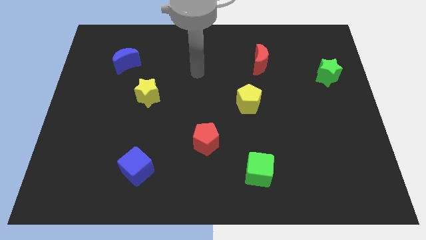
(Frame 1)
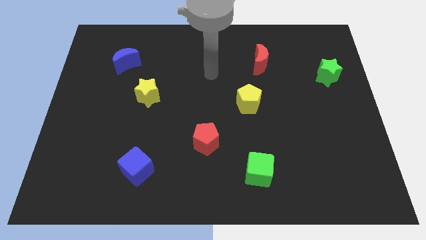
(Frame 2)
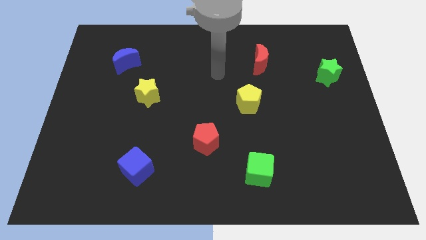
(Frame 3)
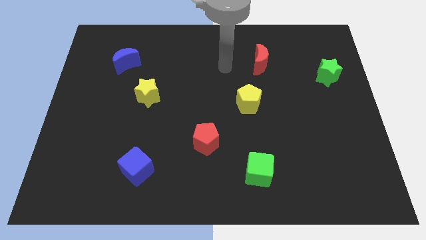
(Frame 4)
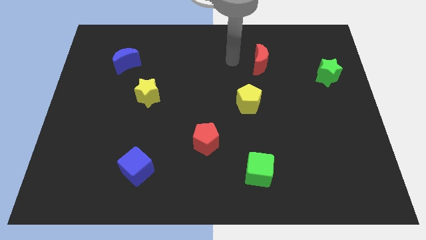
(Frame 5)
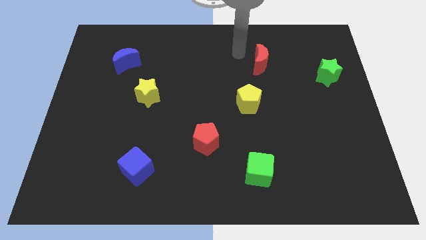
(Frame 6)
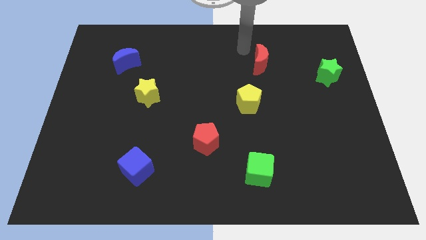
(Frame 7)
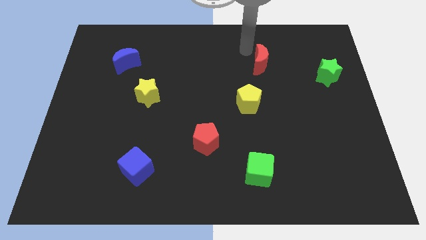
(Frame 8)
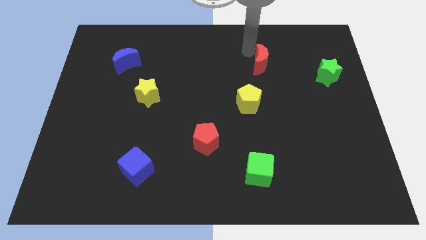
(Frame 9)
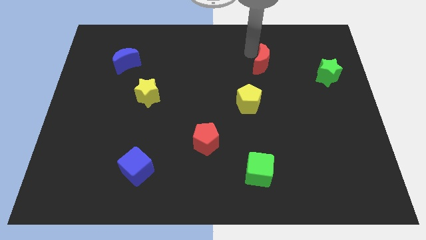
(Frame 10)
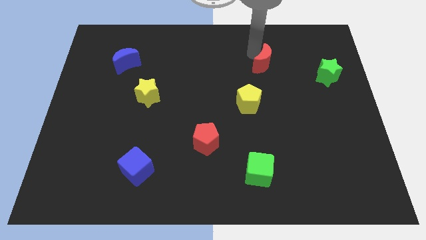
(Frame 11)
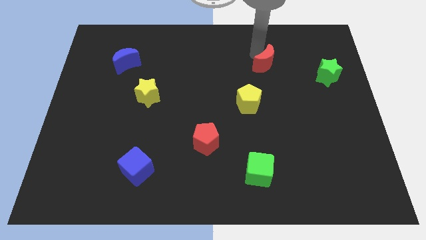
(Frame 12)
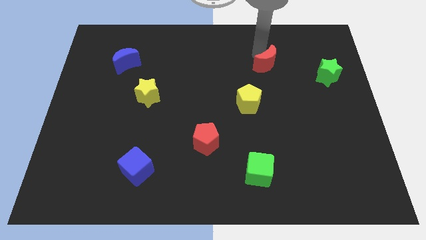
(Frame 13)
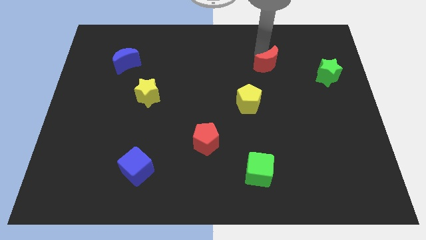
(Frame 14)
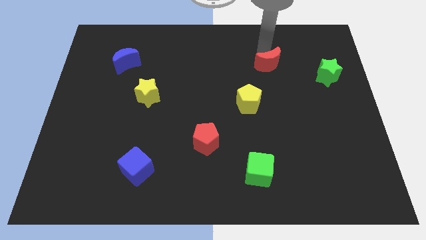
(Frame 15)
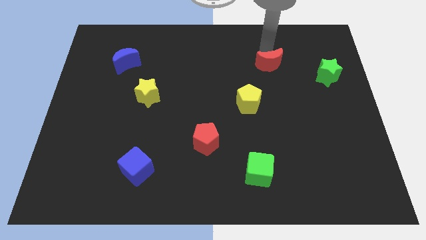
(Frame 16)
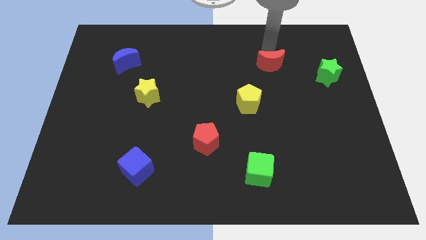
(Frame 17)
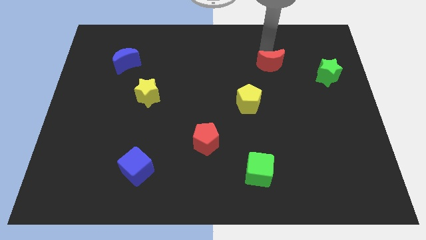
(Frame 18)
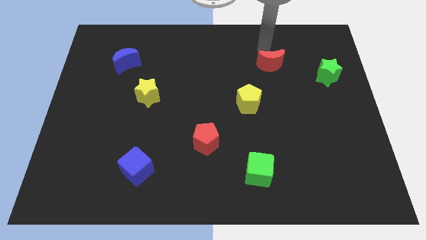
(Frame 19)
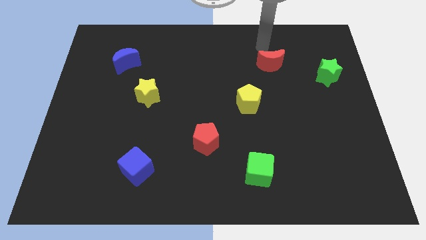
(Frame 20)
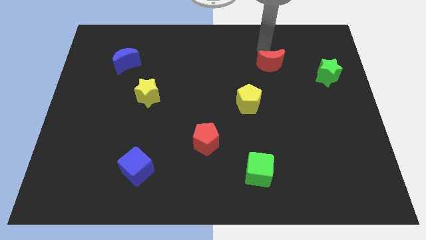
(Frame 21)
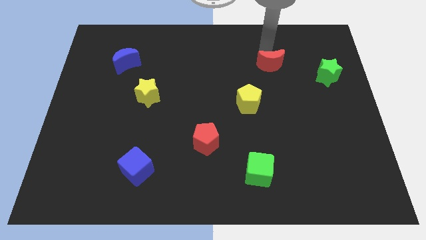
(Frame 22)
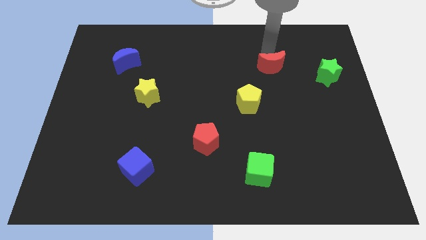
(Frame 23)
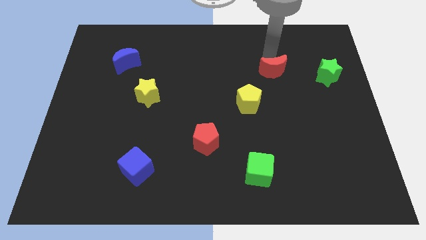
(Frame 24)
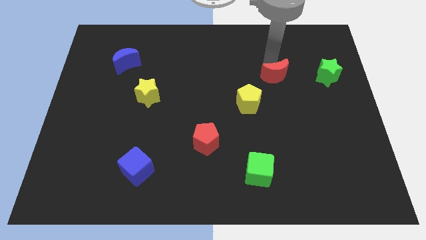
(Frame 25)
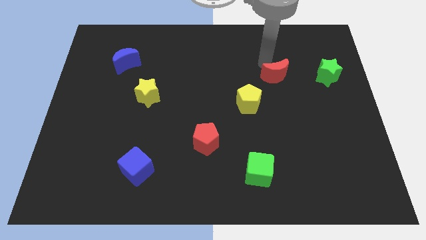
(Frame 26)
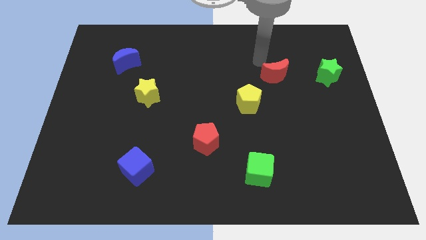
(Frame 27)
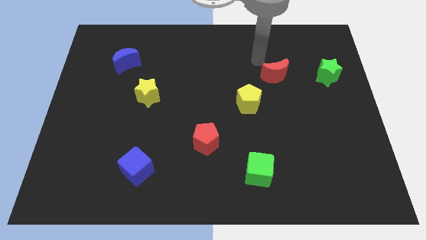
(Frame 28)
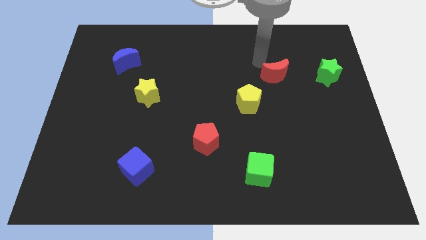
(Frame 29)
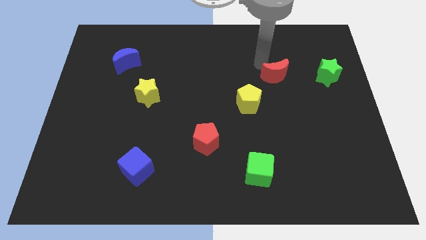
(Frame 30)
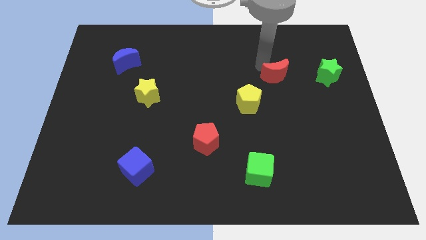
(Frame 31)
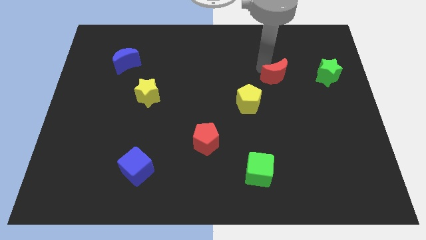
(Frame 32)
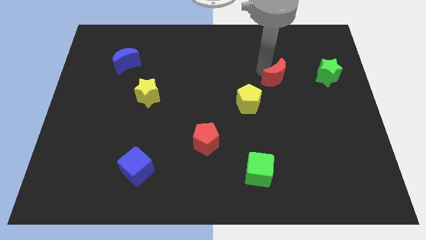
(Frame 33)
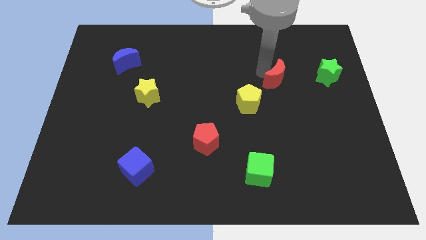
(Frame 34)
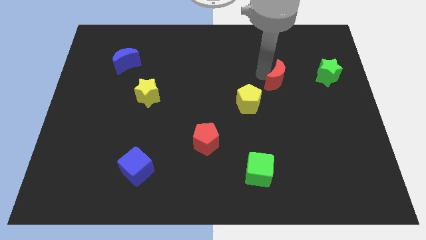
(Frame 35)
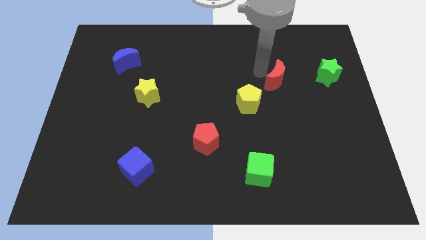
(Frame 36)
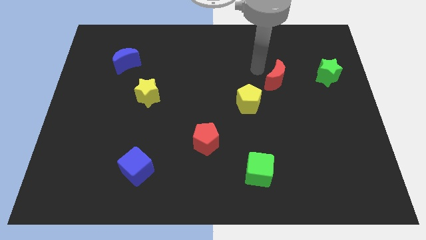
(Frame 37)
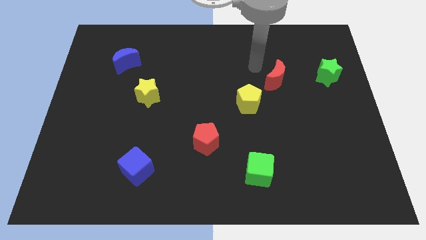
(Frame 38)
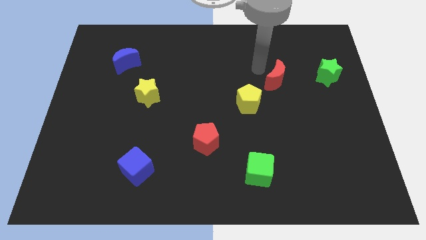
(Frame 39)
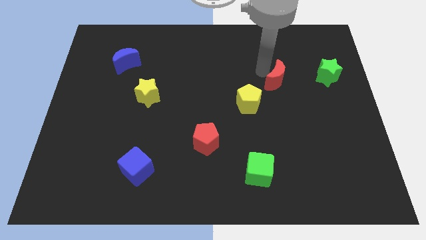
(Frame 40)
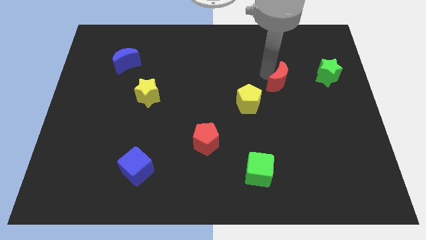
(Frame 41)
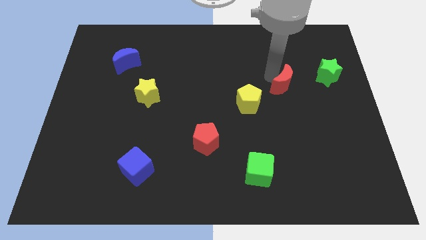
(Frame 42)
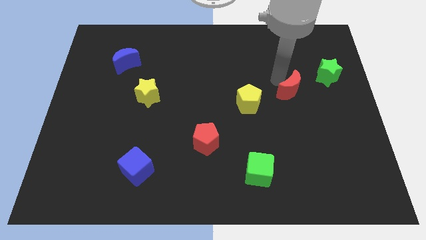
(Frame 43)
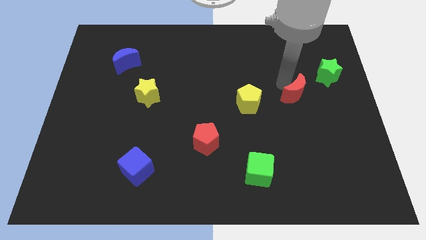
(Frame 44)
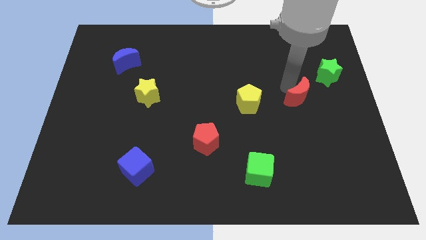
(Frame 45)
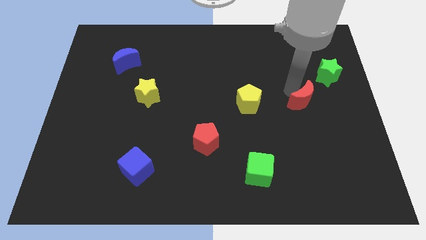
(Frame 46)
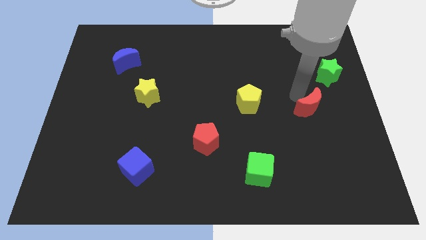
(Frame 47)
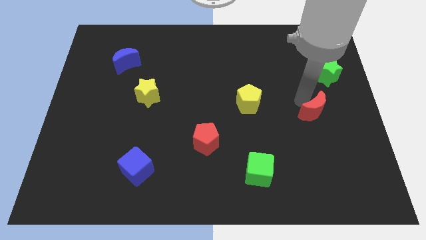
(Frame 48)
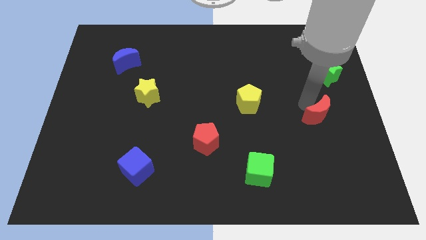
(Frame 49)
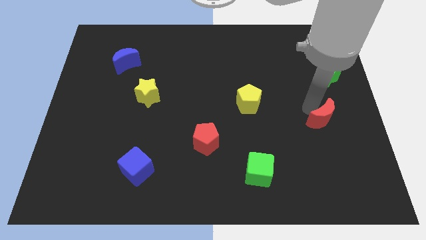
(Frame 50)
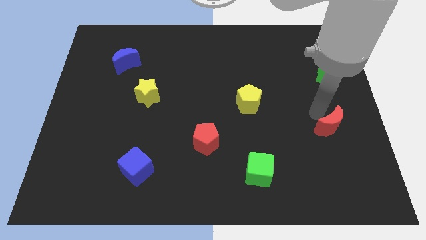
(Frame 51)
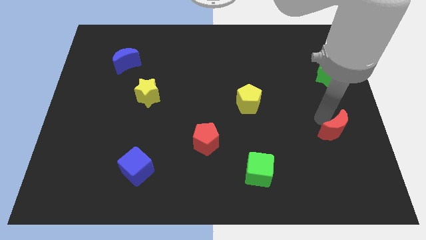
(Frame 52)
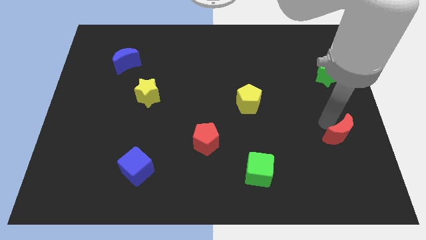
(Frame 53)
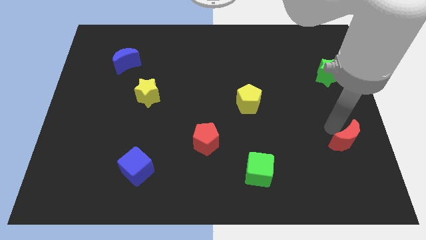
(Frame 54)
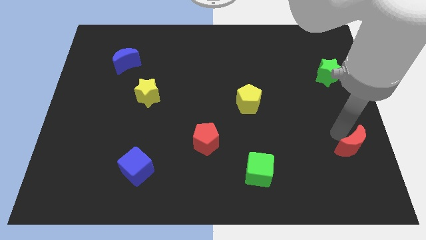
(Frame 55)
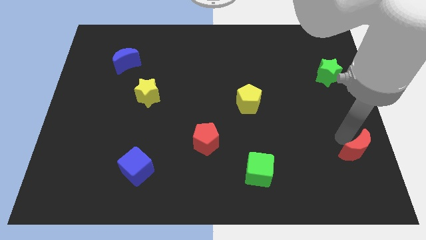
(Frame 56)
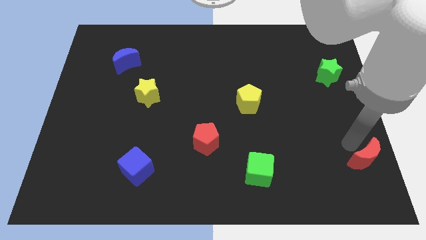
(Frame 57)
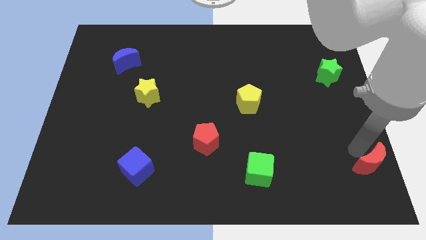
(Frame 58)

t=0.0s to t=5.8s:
push the red moon to the bottom right

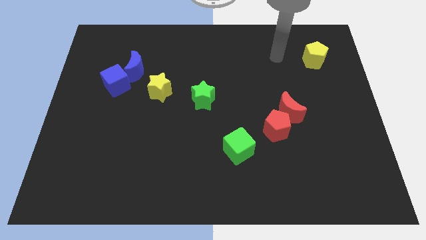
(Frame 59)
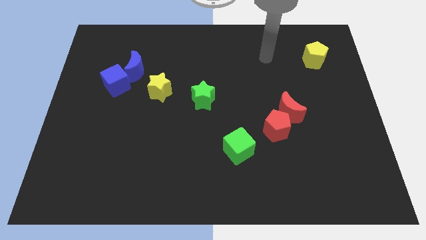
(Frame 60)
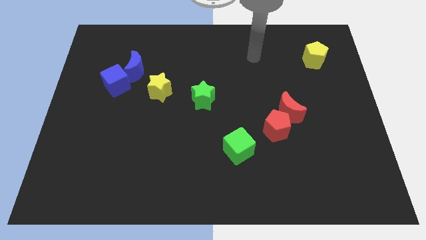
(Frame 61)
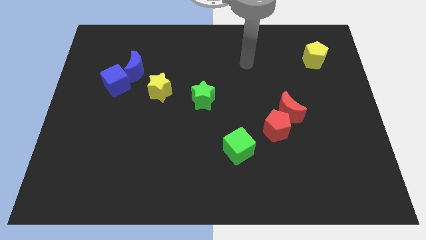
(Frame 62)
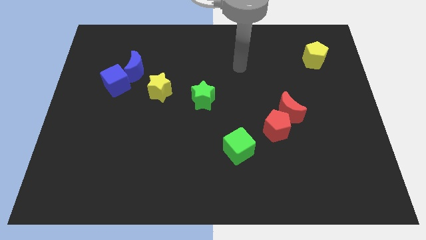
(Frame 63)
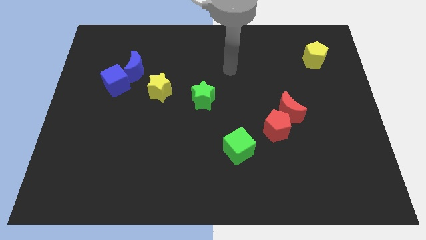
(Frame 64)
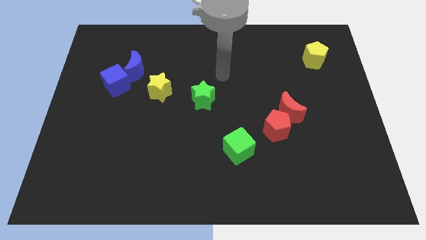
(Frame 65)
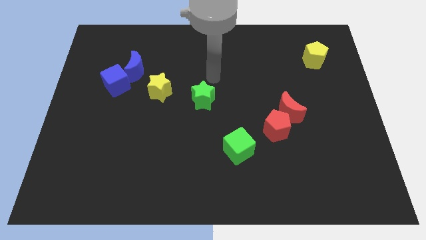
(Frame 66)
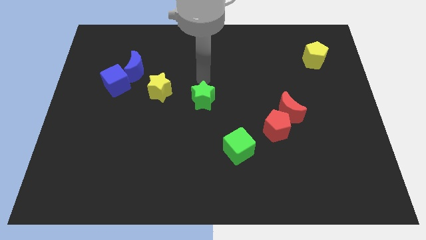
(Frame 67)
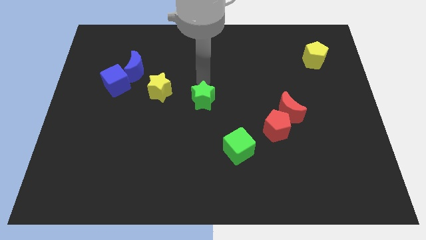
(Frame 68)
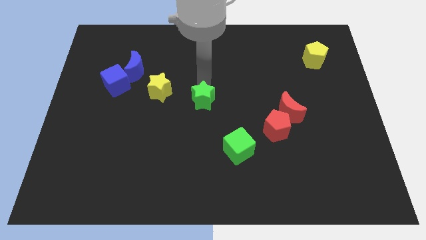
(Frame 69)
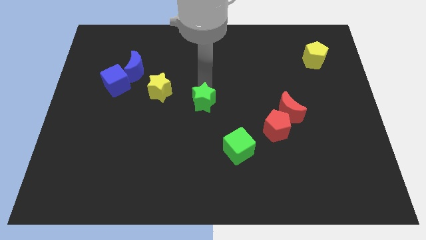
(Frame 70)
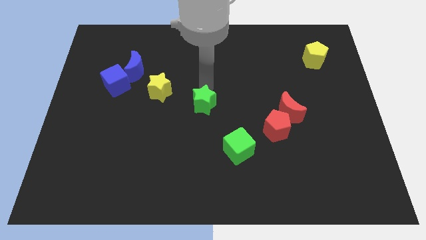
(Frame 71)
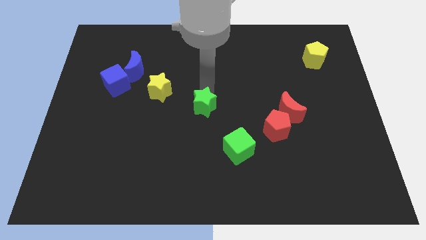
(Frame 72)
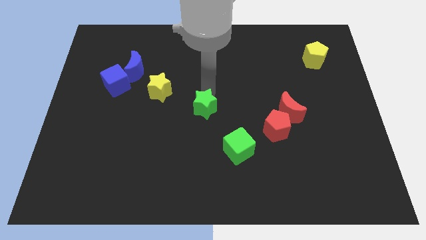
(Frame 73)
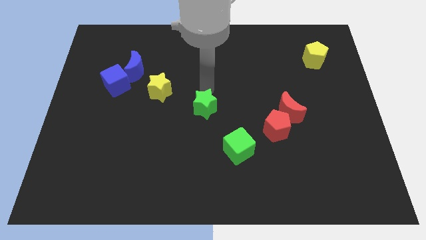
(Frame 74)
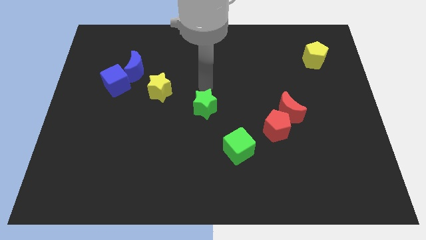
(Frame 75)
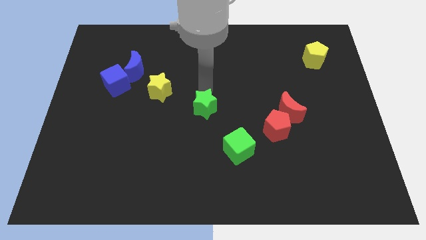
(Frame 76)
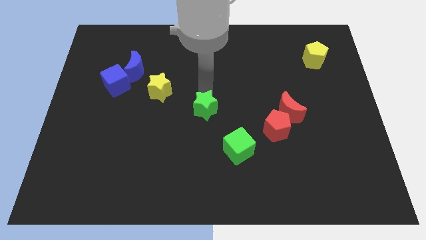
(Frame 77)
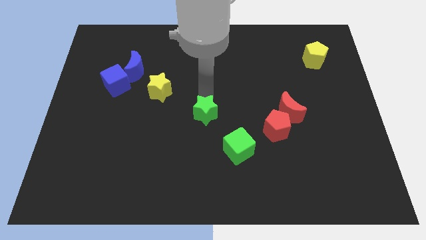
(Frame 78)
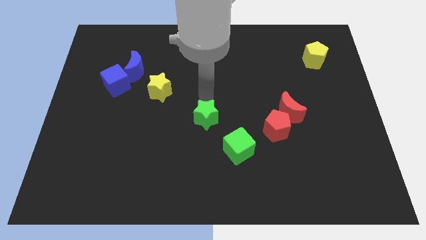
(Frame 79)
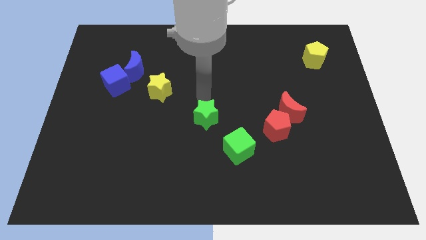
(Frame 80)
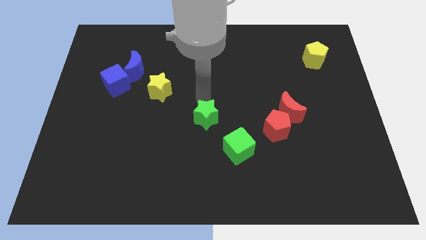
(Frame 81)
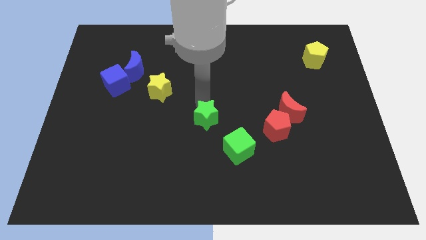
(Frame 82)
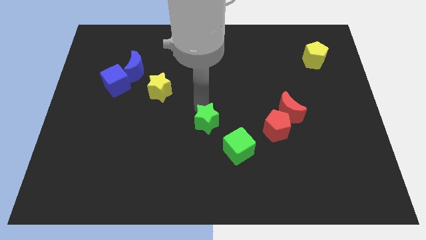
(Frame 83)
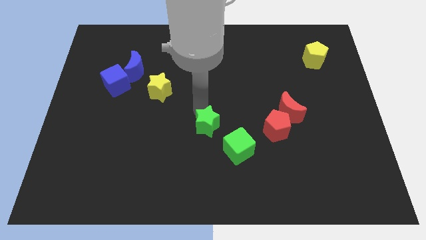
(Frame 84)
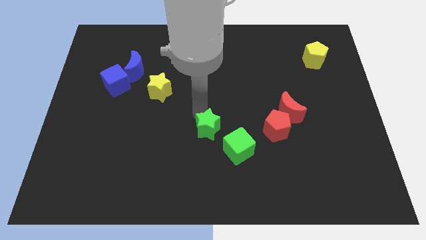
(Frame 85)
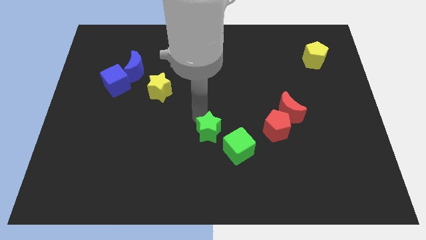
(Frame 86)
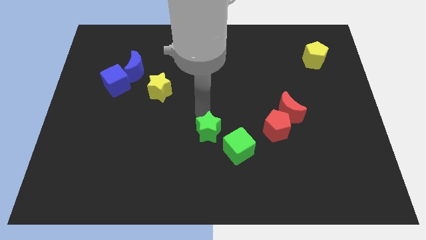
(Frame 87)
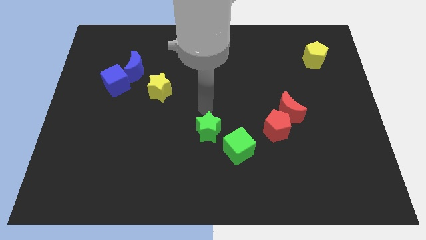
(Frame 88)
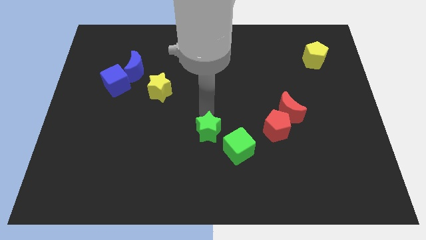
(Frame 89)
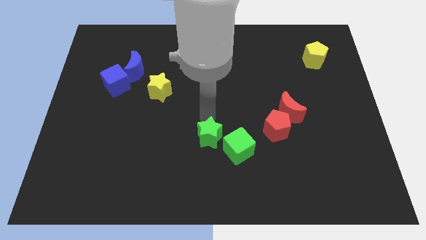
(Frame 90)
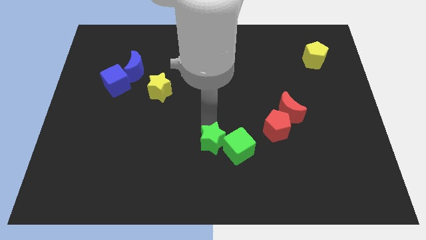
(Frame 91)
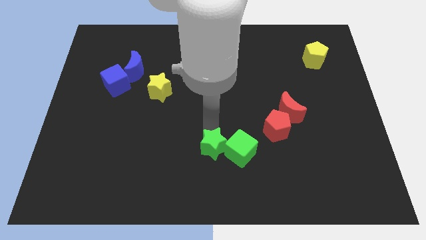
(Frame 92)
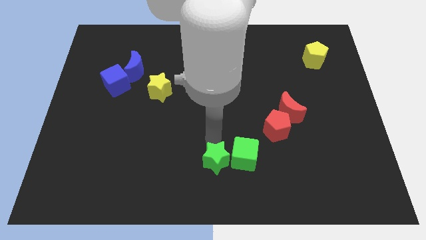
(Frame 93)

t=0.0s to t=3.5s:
move the green star to the bottom
